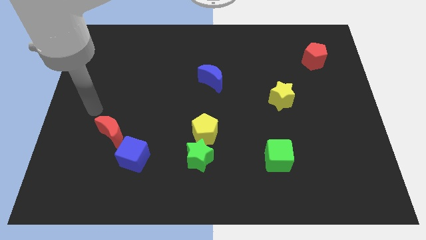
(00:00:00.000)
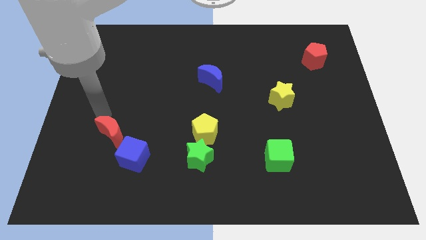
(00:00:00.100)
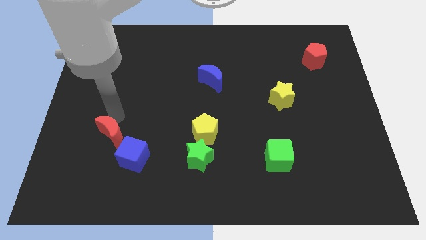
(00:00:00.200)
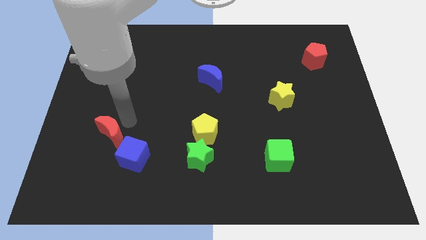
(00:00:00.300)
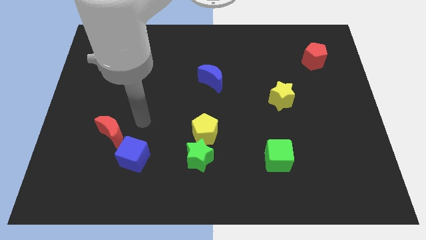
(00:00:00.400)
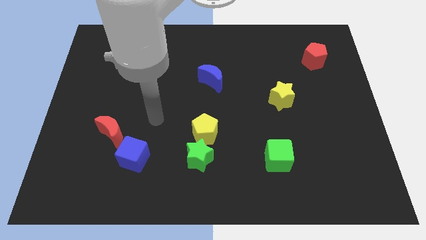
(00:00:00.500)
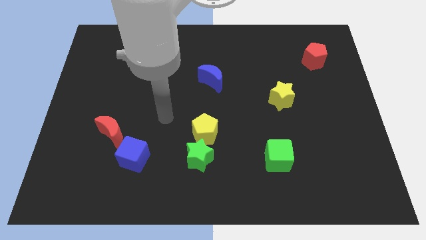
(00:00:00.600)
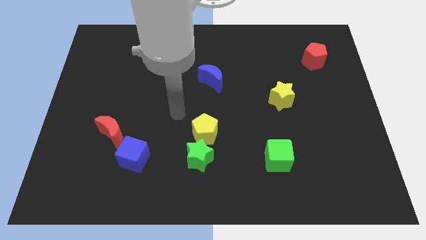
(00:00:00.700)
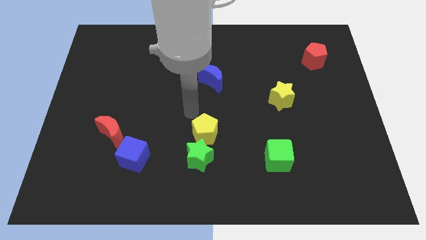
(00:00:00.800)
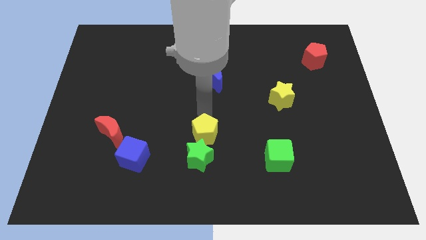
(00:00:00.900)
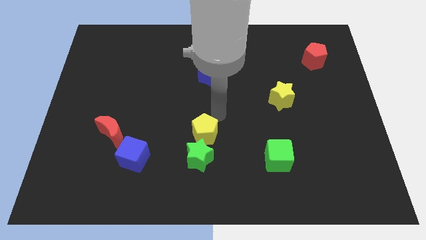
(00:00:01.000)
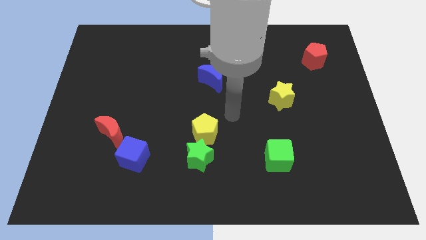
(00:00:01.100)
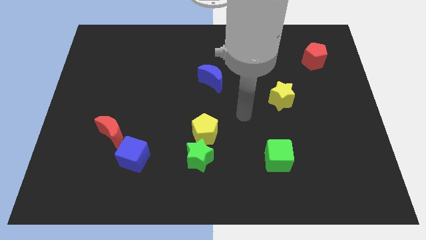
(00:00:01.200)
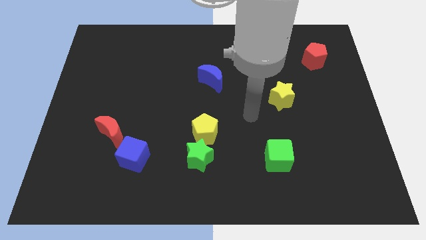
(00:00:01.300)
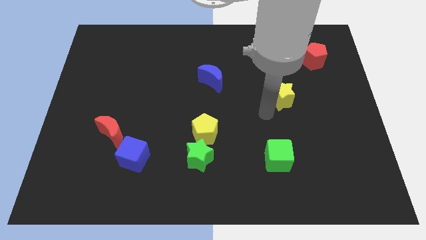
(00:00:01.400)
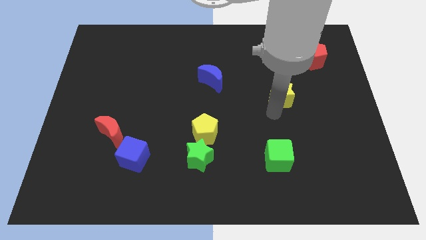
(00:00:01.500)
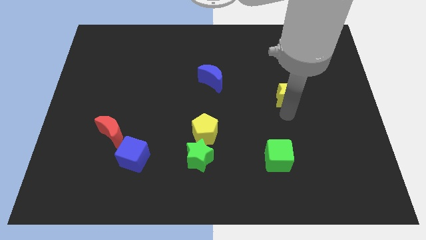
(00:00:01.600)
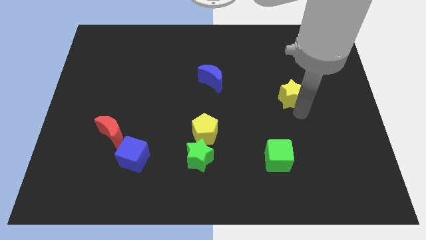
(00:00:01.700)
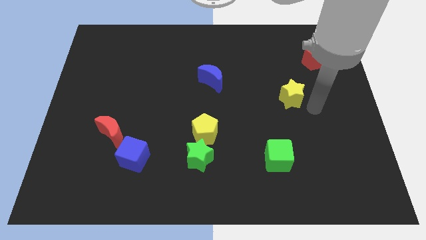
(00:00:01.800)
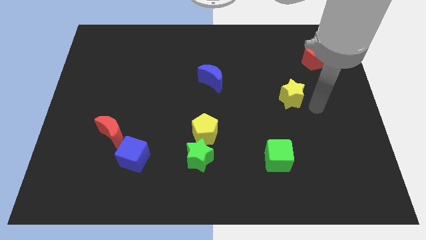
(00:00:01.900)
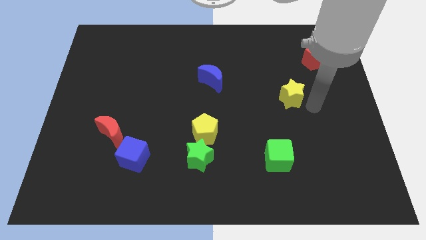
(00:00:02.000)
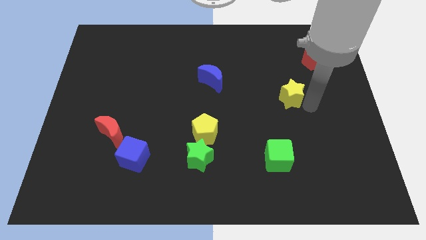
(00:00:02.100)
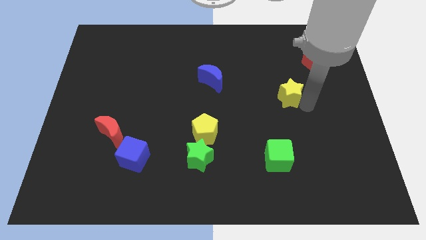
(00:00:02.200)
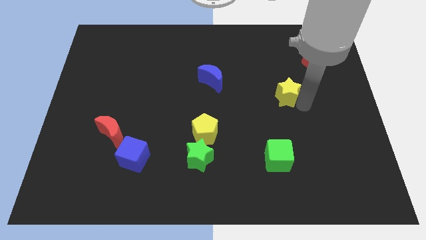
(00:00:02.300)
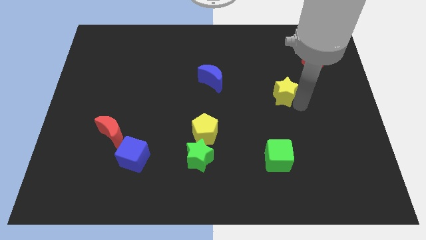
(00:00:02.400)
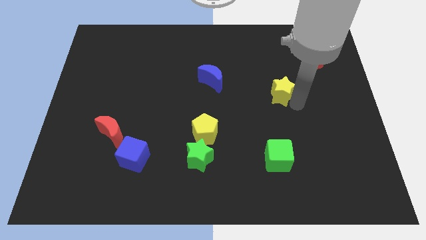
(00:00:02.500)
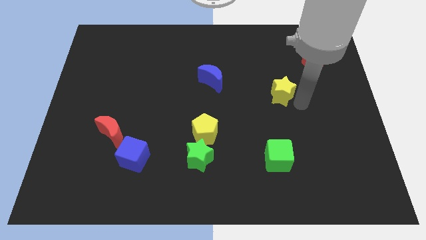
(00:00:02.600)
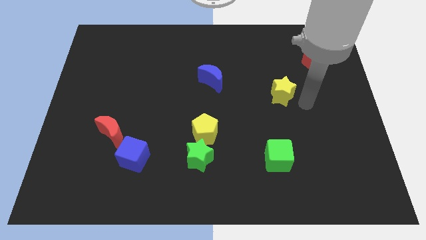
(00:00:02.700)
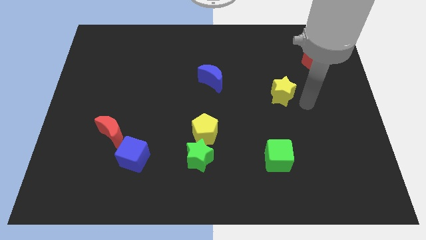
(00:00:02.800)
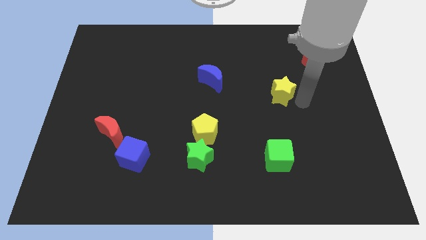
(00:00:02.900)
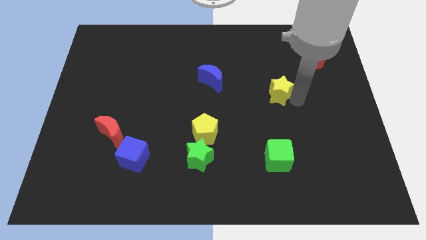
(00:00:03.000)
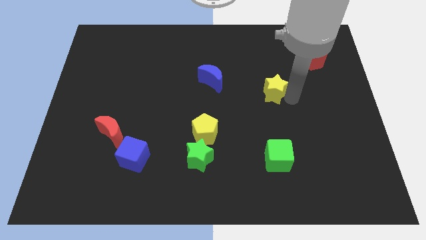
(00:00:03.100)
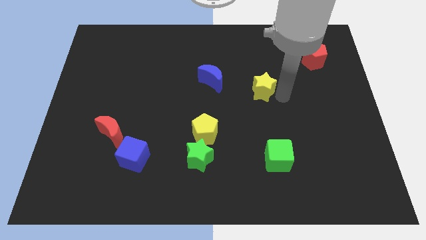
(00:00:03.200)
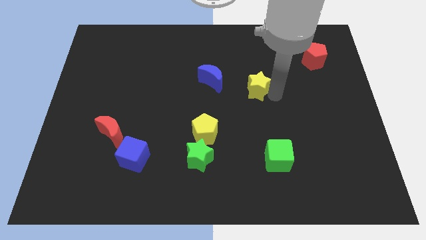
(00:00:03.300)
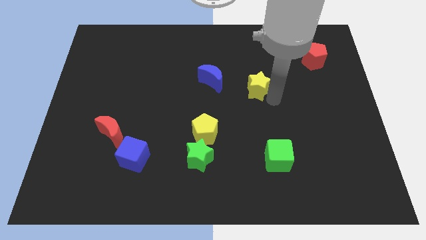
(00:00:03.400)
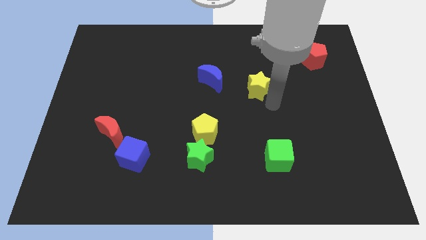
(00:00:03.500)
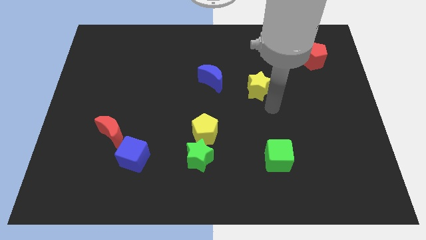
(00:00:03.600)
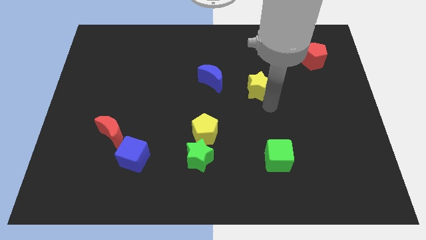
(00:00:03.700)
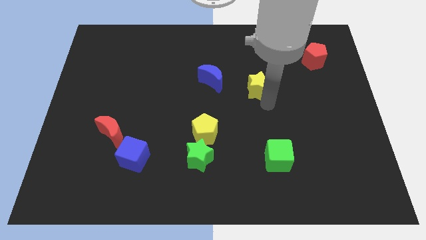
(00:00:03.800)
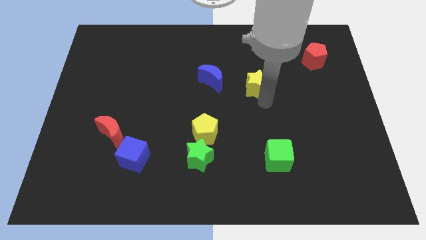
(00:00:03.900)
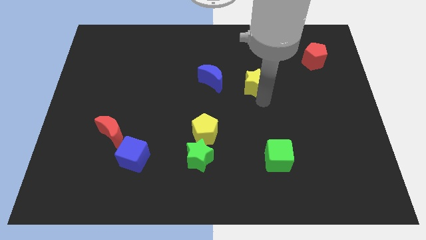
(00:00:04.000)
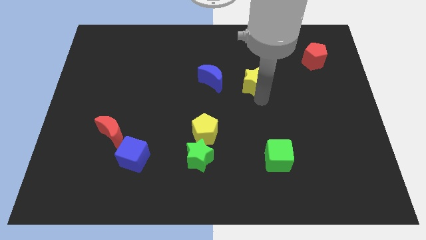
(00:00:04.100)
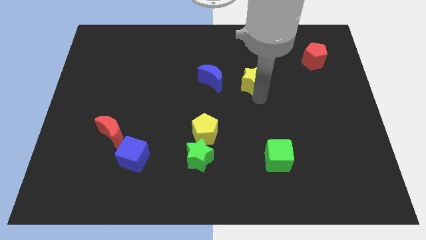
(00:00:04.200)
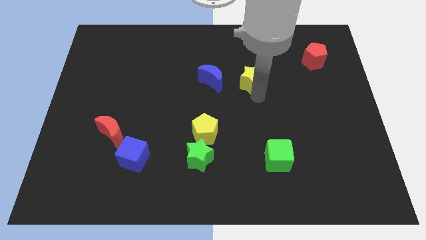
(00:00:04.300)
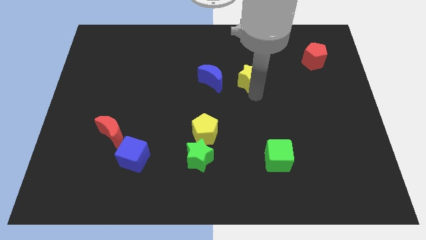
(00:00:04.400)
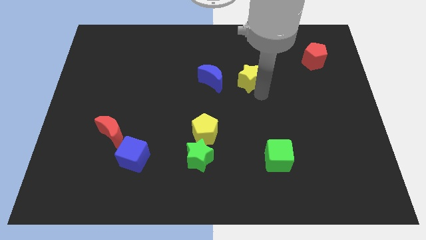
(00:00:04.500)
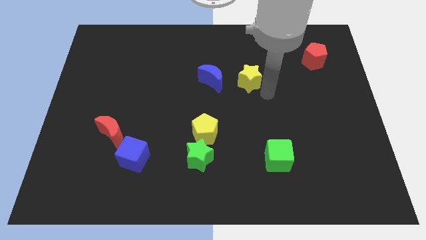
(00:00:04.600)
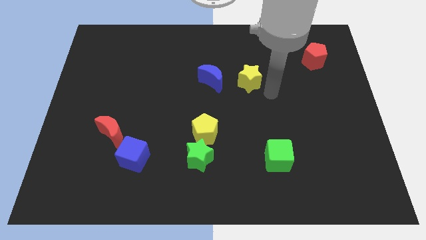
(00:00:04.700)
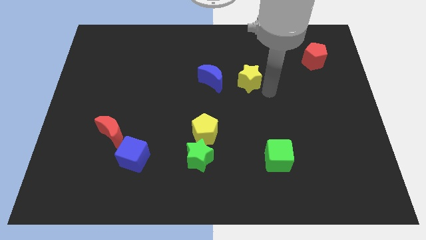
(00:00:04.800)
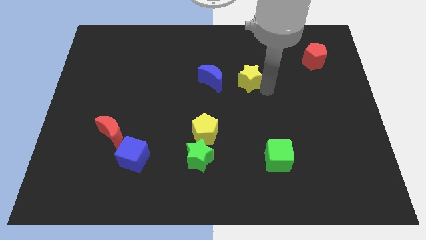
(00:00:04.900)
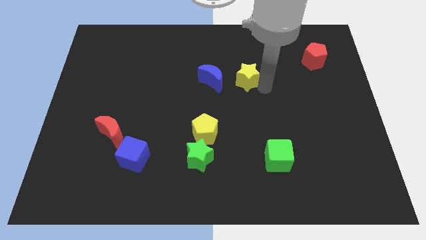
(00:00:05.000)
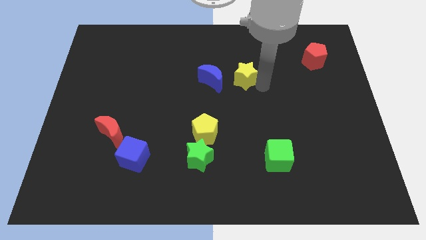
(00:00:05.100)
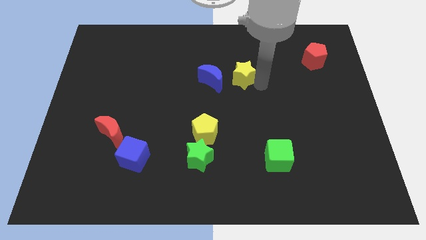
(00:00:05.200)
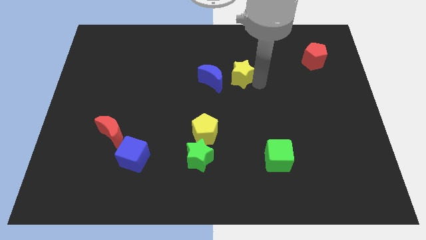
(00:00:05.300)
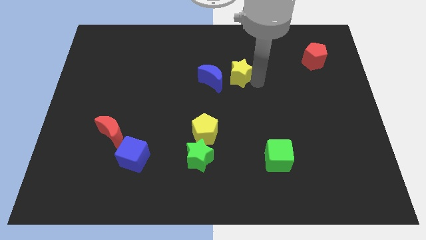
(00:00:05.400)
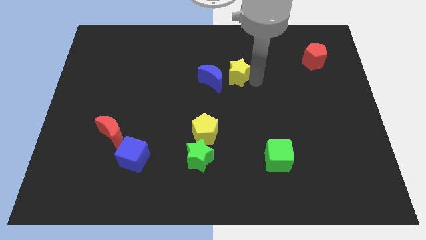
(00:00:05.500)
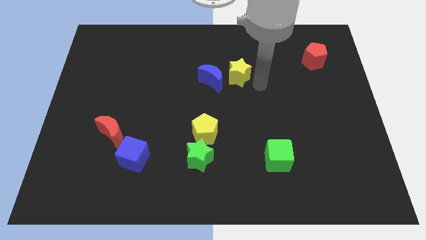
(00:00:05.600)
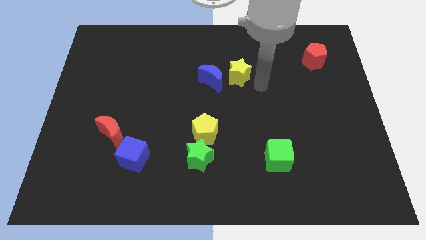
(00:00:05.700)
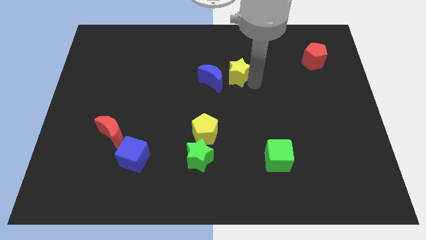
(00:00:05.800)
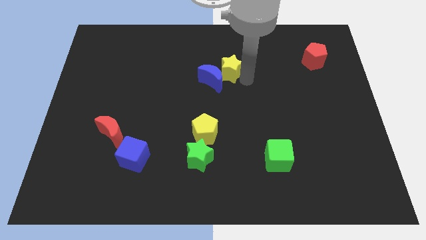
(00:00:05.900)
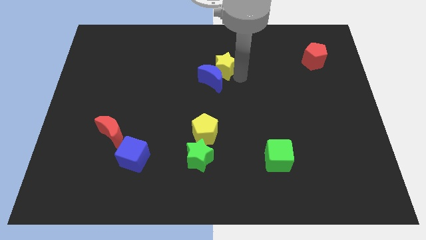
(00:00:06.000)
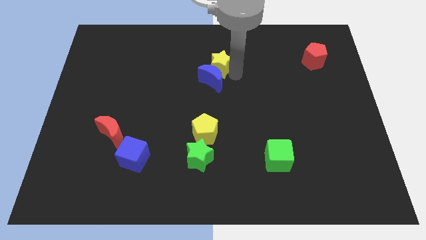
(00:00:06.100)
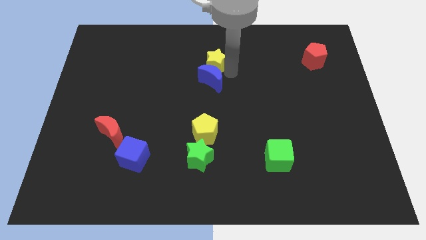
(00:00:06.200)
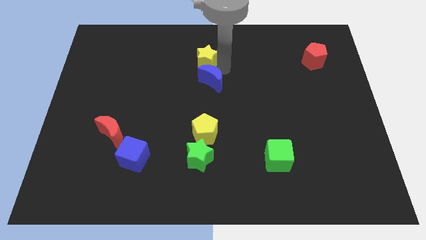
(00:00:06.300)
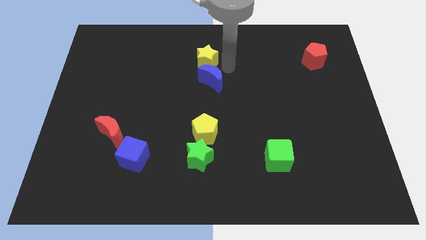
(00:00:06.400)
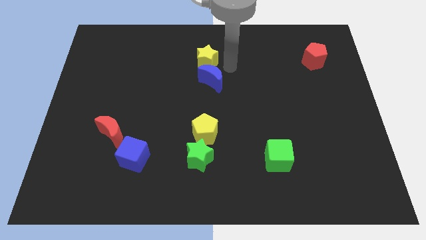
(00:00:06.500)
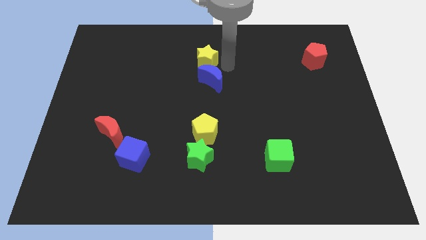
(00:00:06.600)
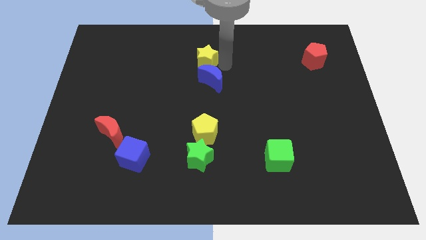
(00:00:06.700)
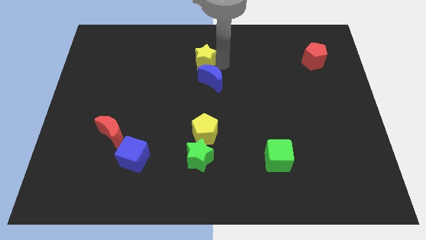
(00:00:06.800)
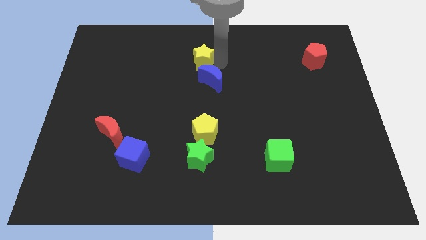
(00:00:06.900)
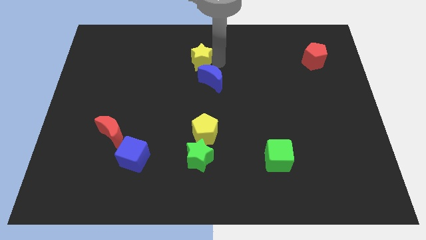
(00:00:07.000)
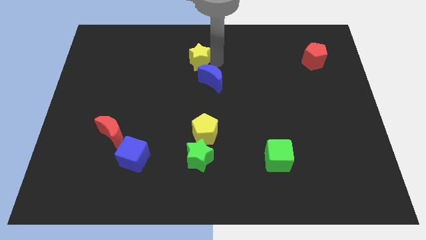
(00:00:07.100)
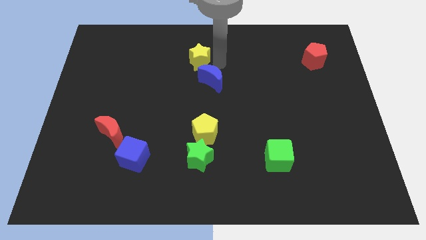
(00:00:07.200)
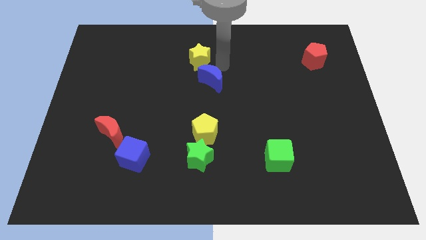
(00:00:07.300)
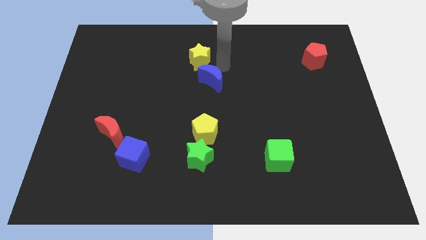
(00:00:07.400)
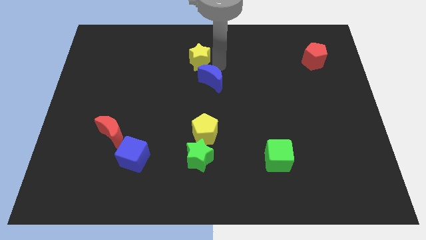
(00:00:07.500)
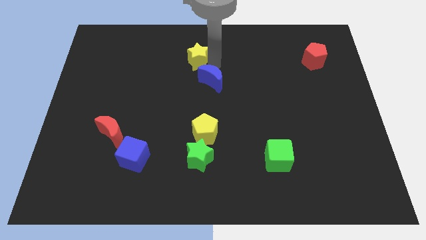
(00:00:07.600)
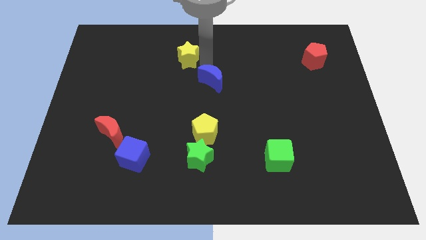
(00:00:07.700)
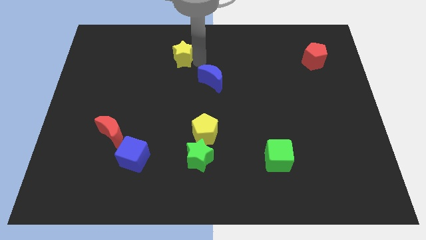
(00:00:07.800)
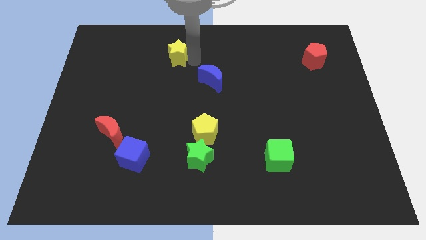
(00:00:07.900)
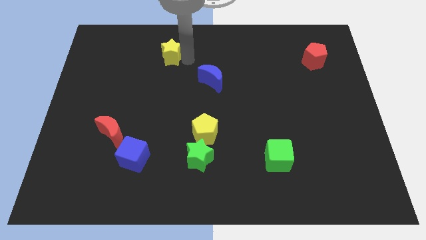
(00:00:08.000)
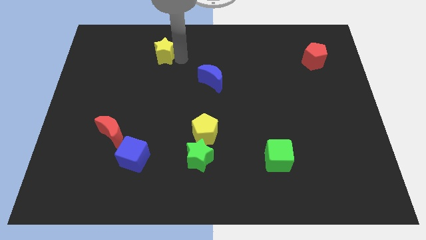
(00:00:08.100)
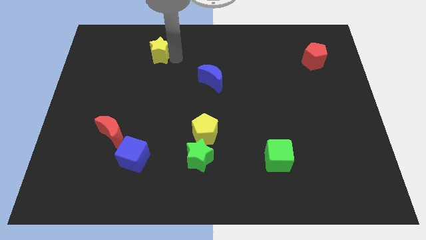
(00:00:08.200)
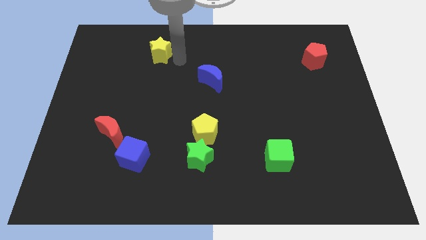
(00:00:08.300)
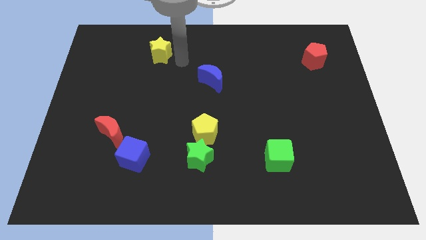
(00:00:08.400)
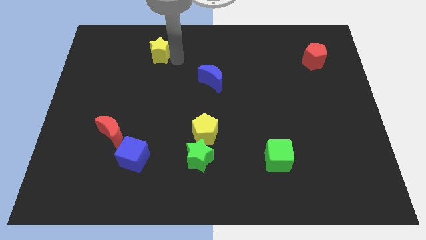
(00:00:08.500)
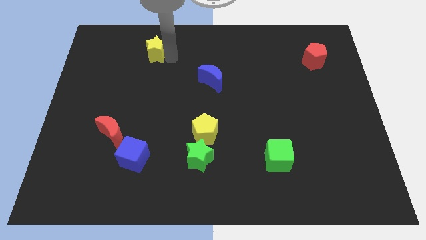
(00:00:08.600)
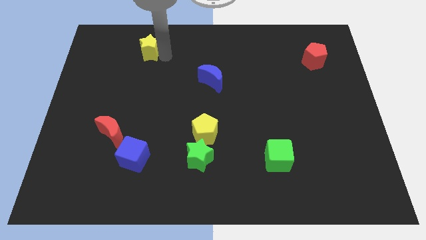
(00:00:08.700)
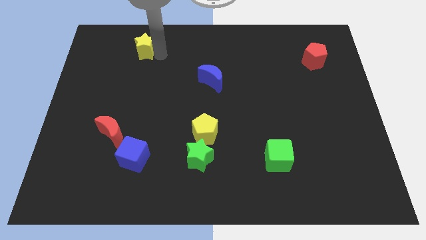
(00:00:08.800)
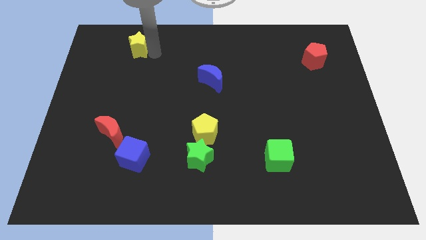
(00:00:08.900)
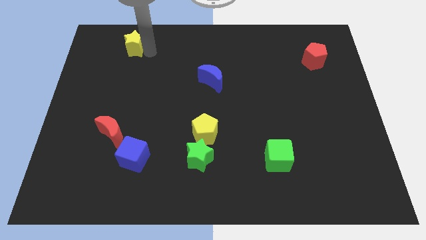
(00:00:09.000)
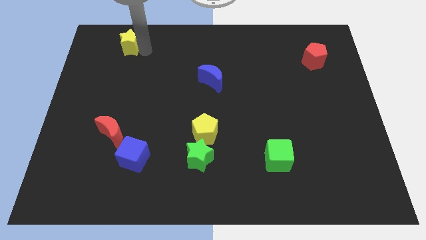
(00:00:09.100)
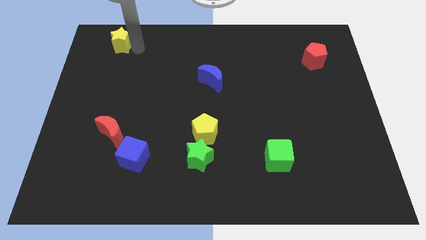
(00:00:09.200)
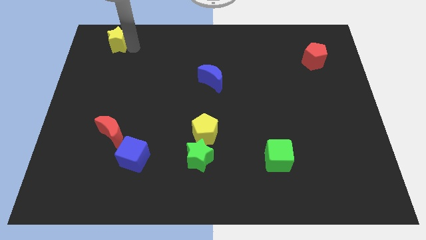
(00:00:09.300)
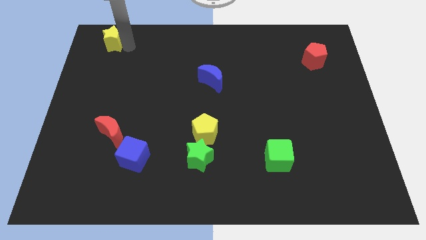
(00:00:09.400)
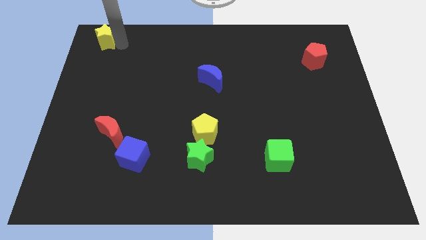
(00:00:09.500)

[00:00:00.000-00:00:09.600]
put the yellow star to the top left
